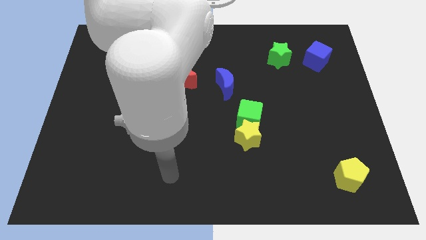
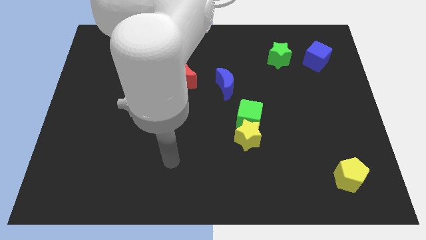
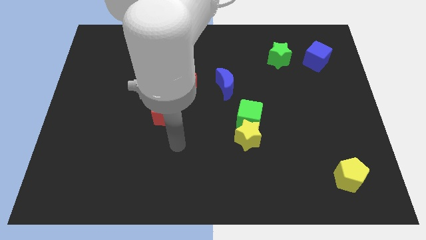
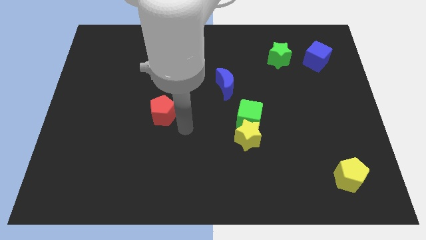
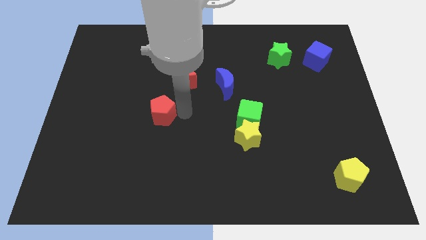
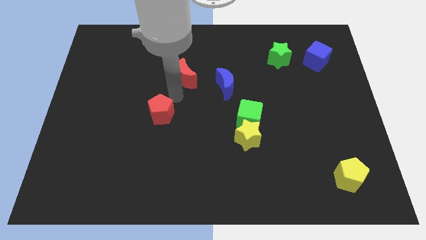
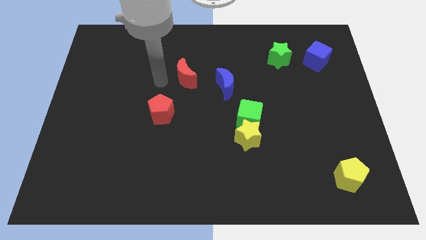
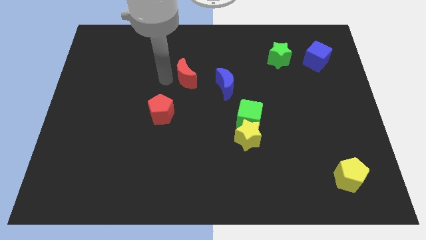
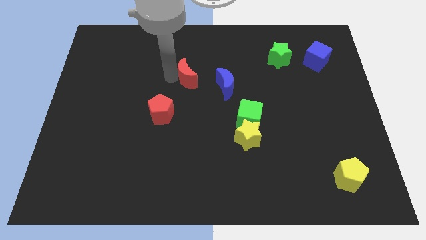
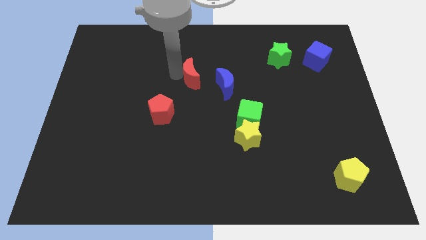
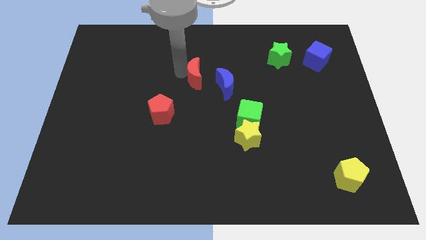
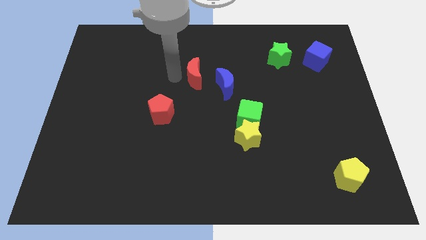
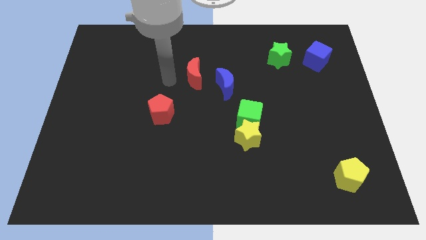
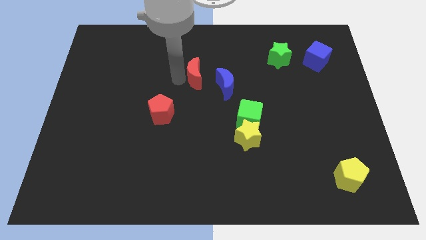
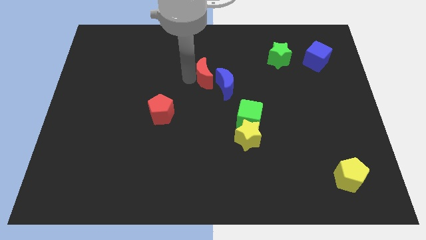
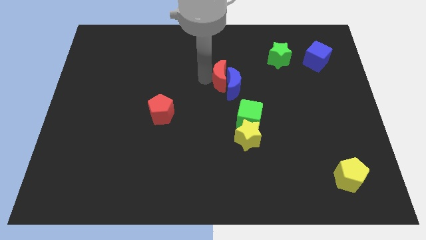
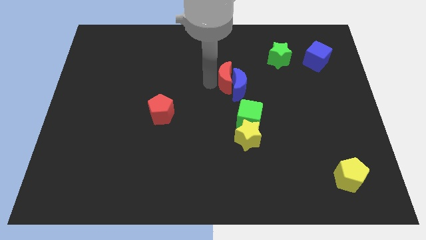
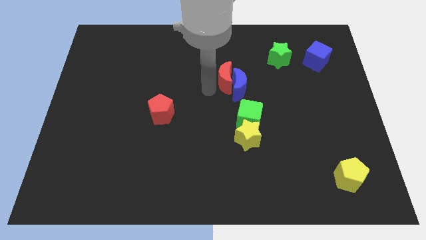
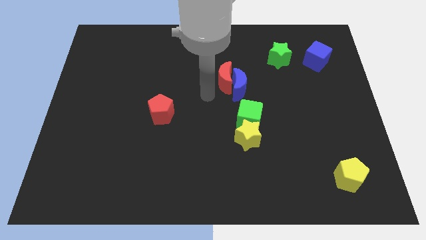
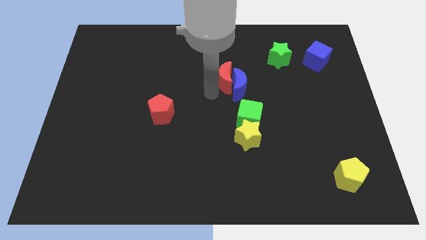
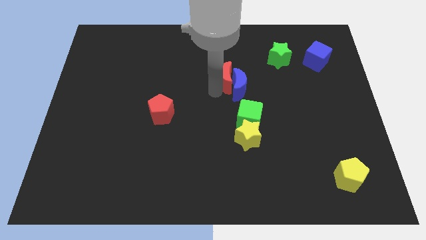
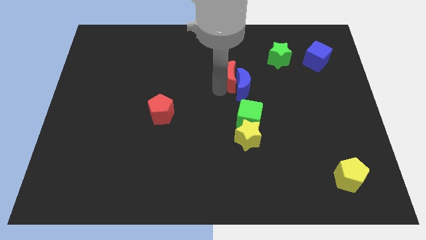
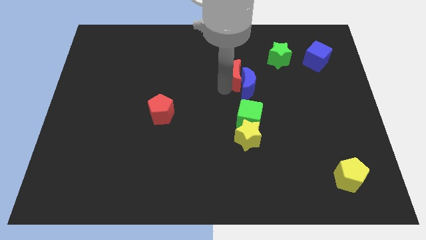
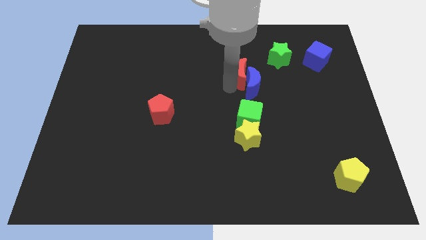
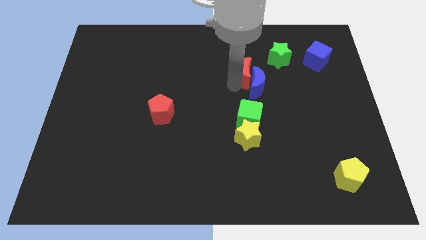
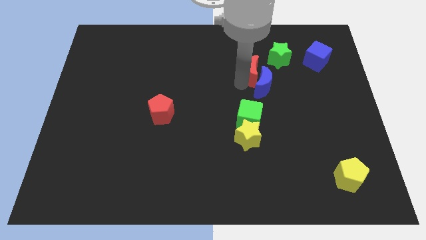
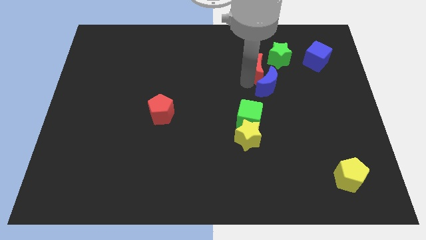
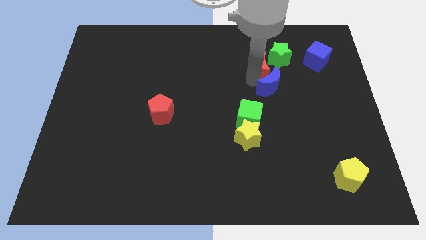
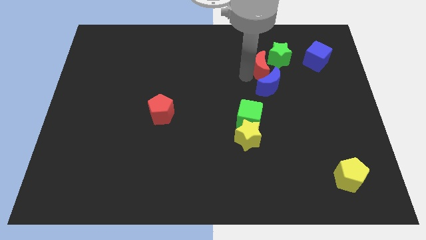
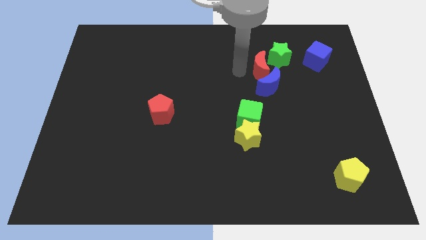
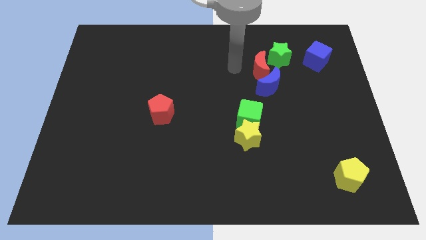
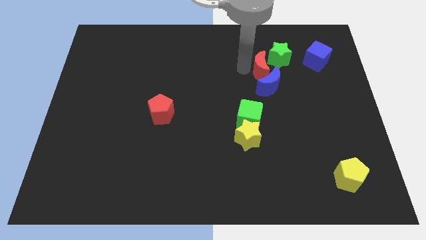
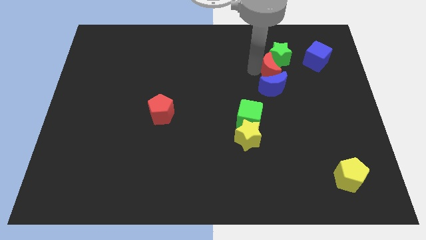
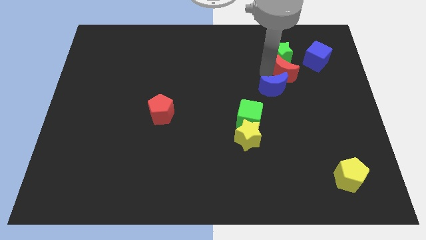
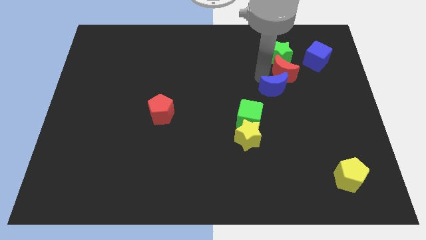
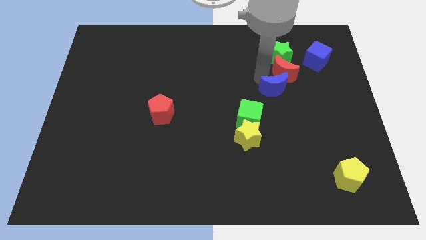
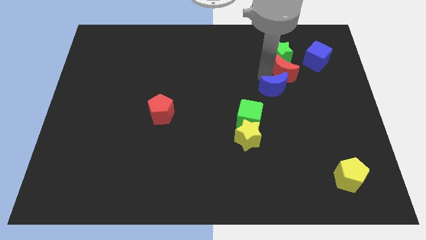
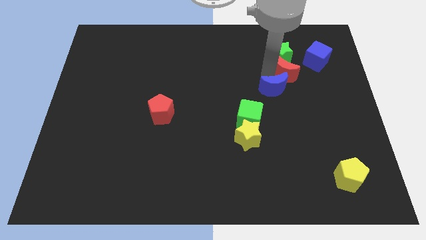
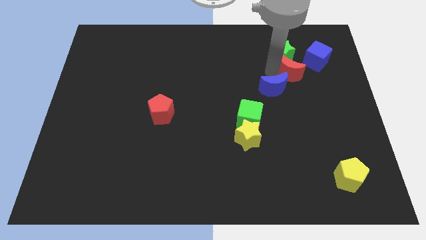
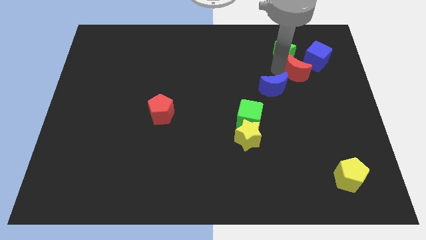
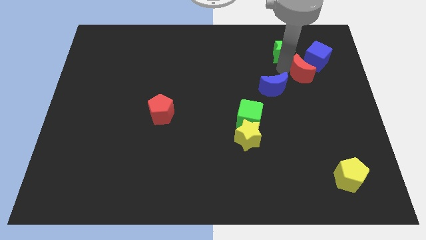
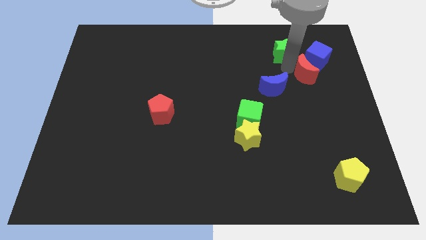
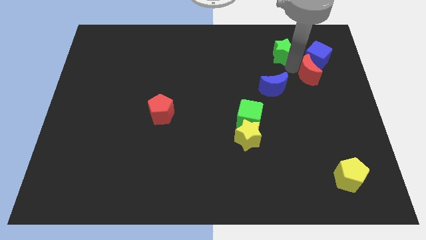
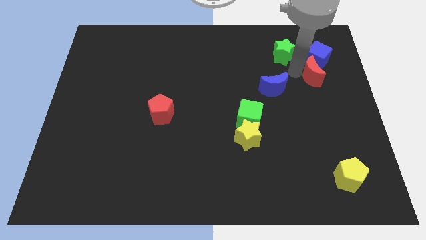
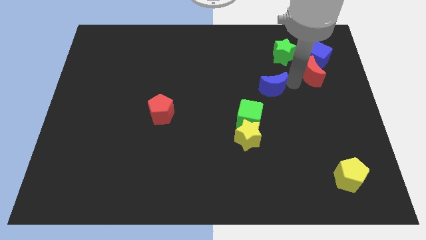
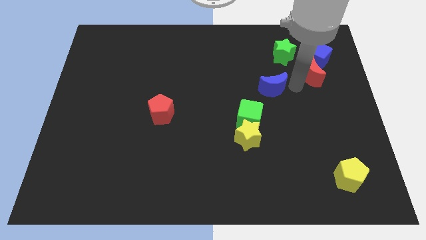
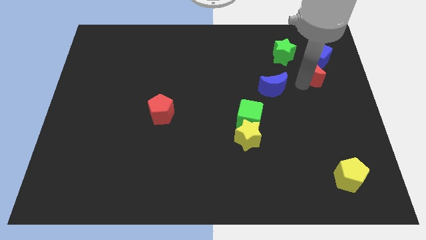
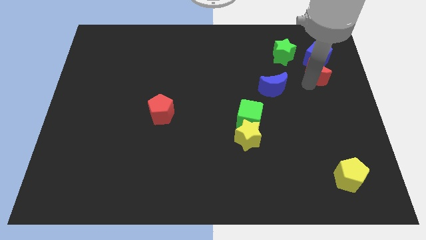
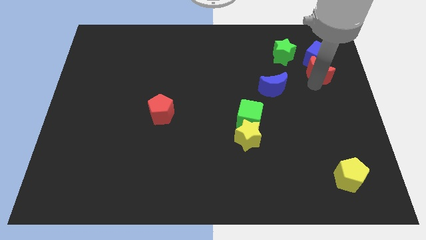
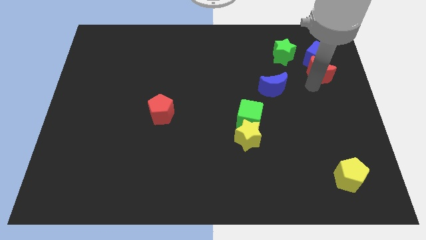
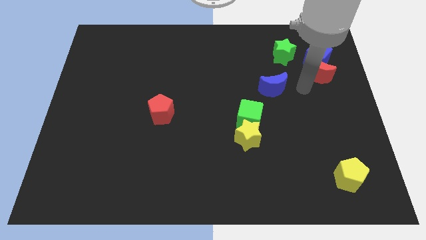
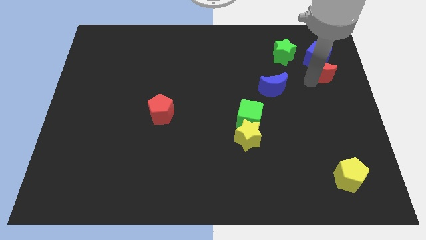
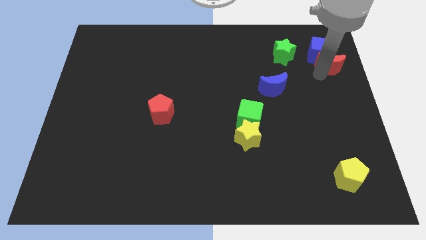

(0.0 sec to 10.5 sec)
slide the red moon to the right of the green star

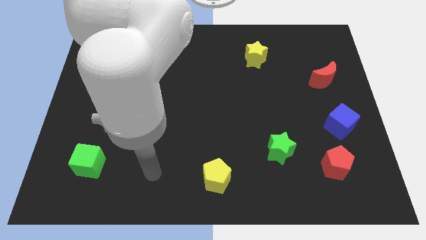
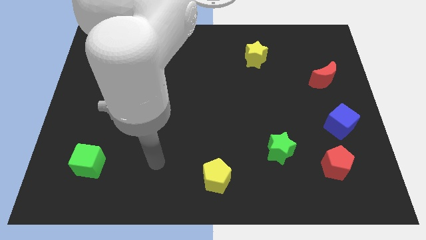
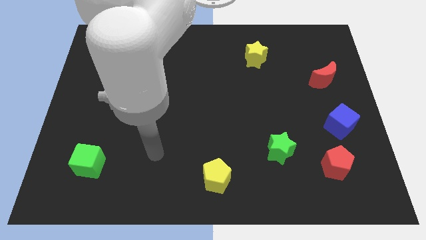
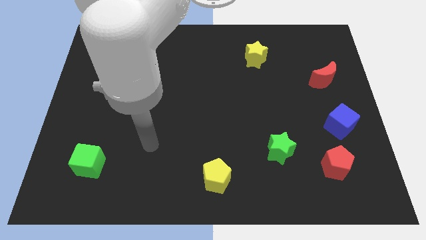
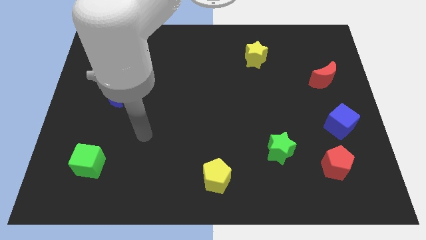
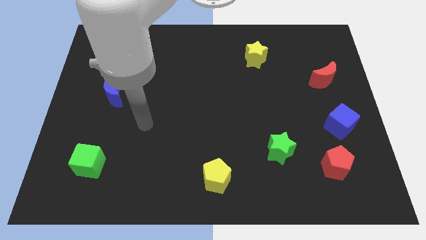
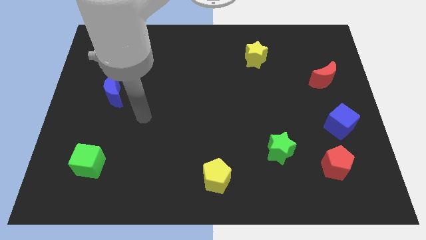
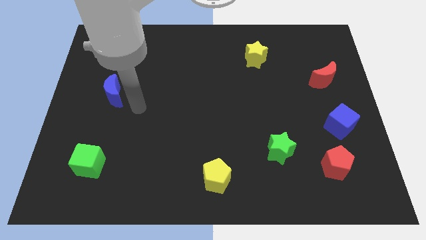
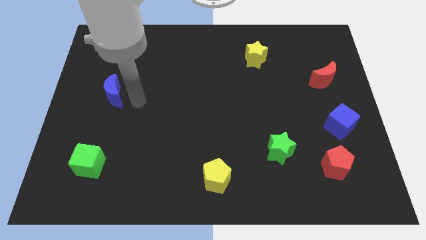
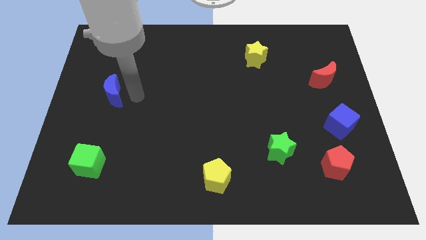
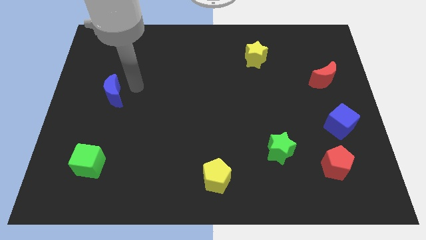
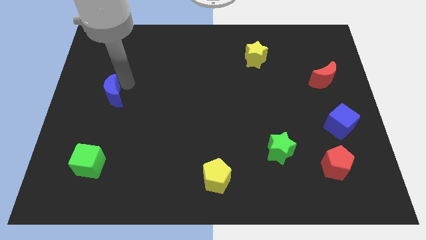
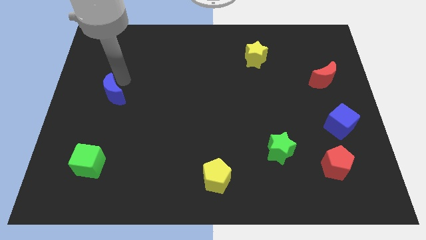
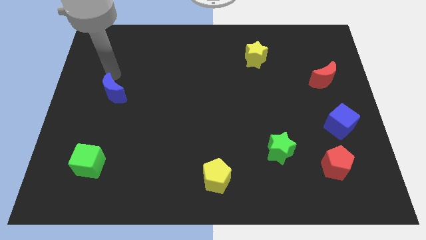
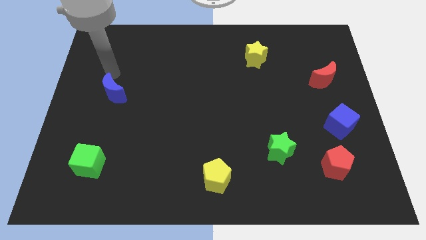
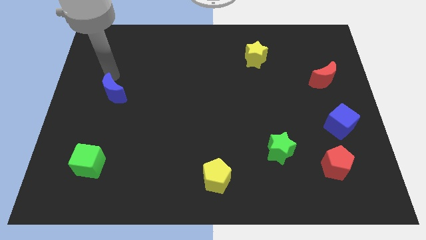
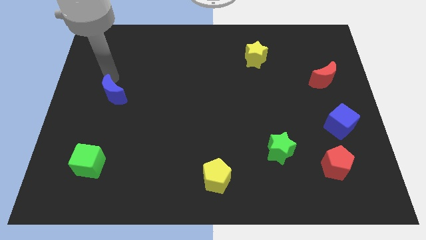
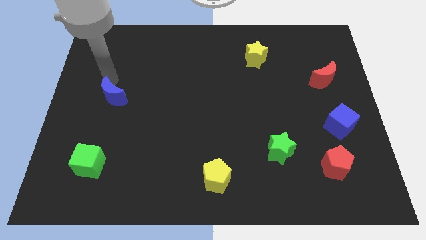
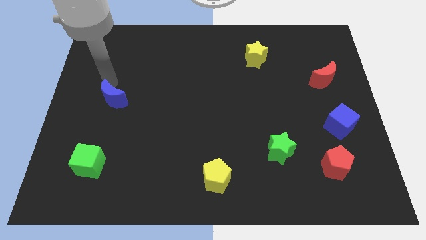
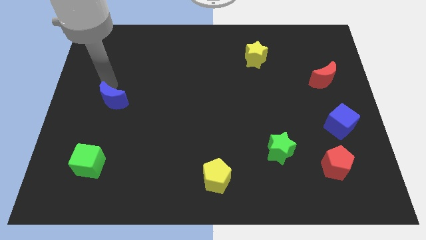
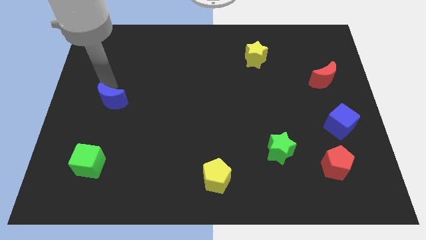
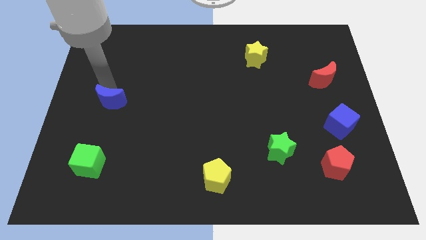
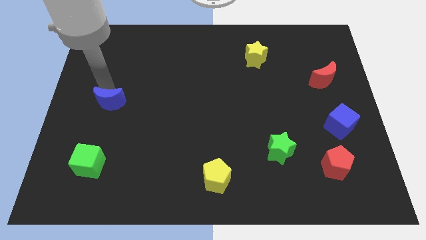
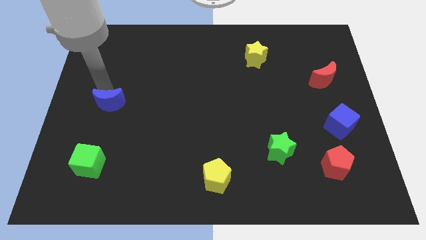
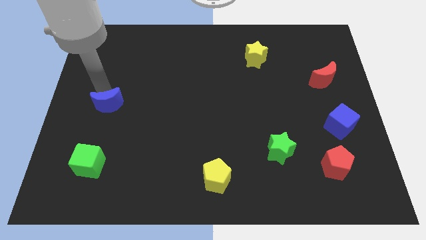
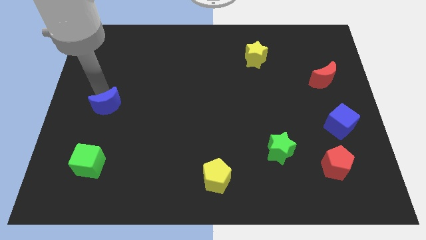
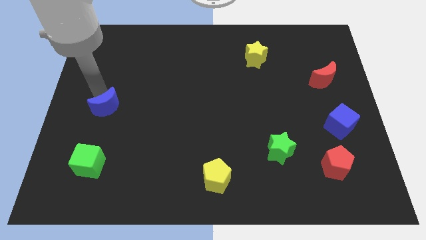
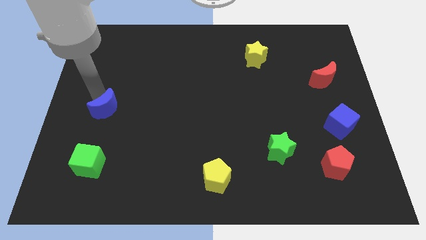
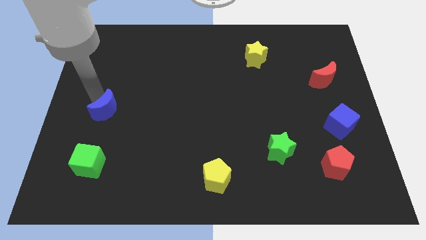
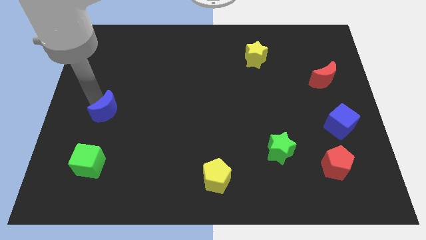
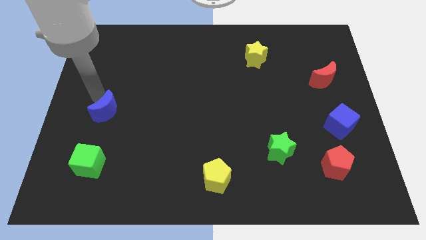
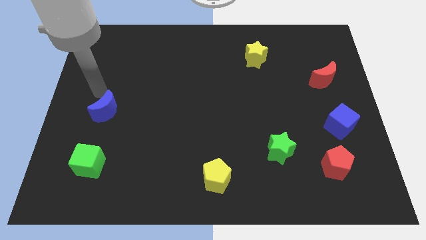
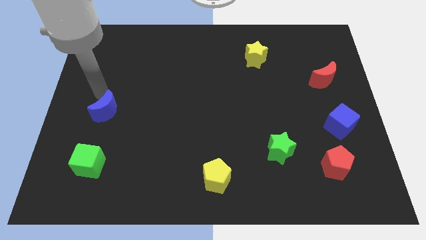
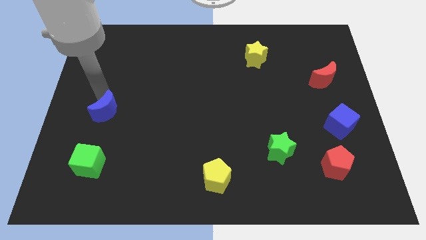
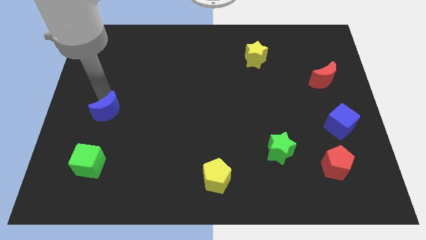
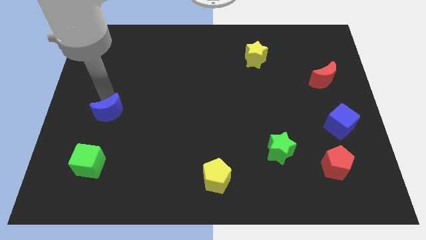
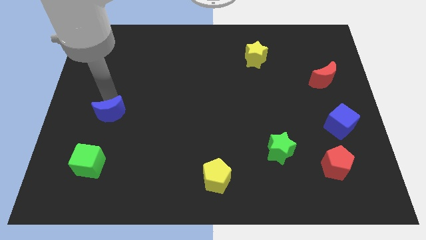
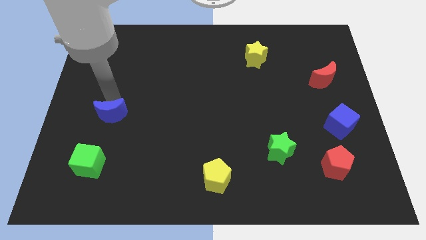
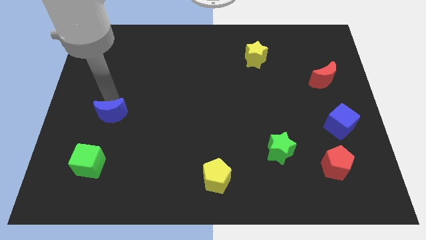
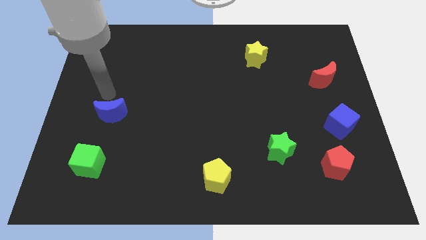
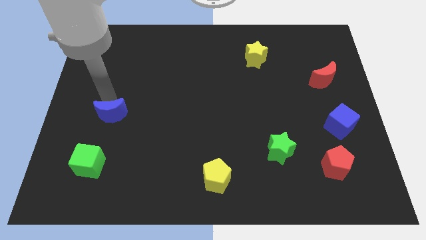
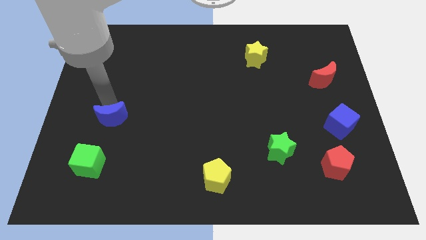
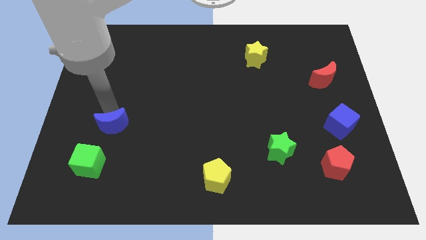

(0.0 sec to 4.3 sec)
move the blue moon to the top right of the green cube
